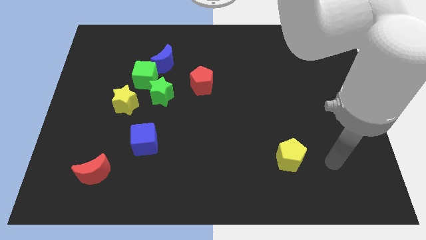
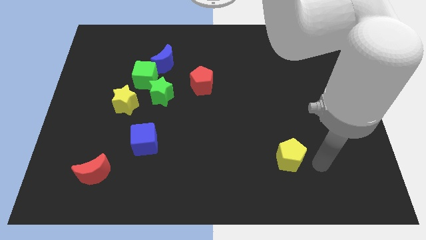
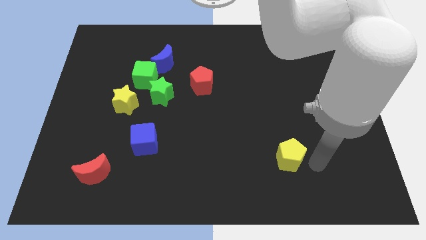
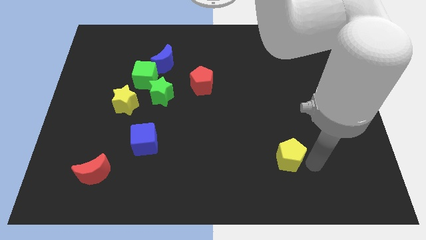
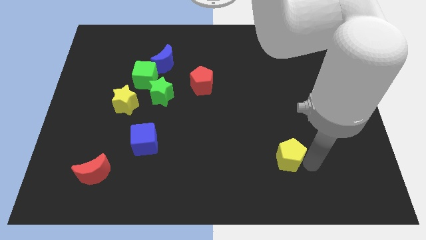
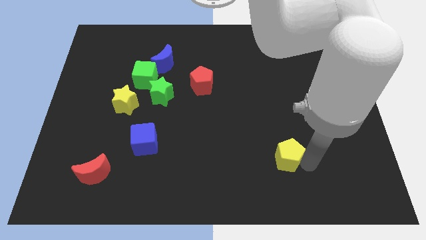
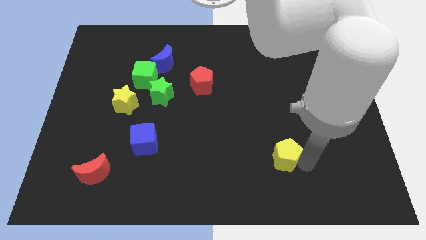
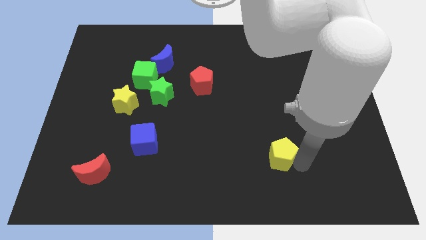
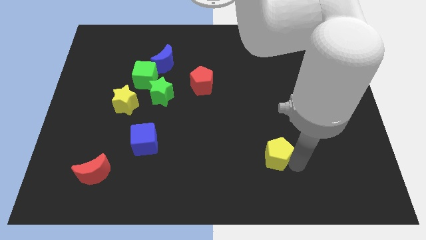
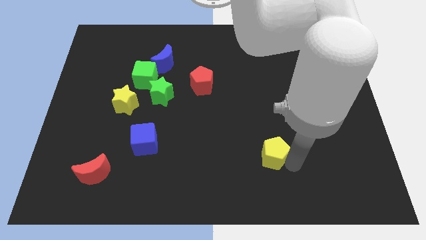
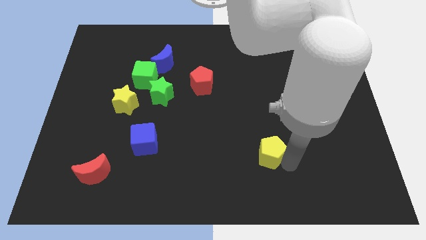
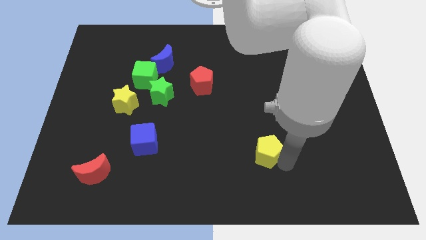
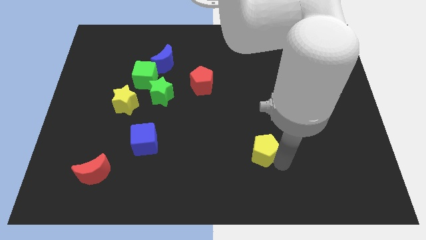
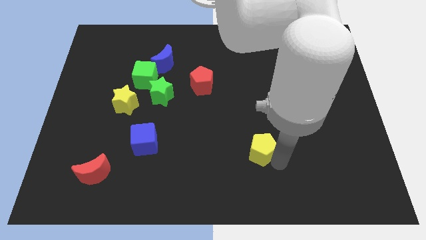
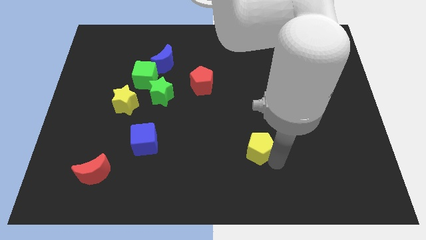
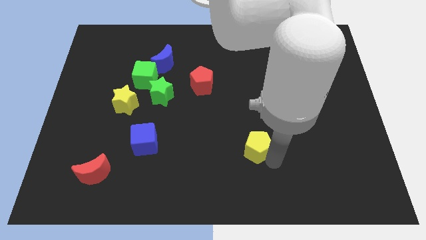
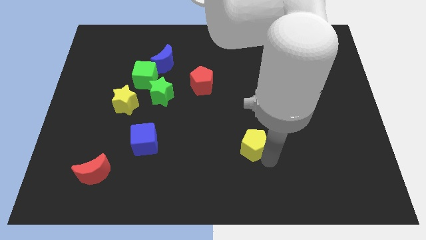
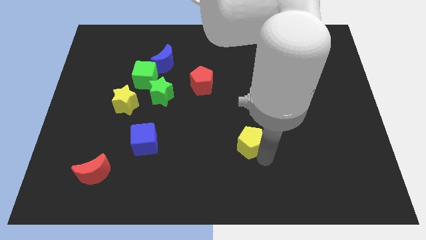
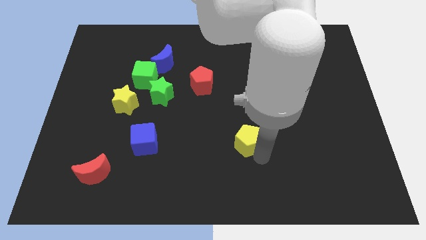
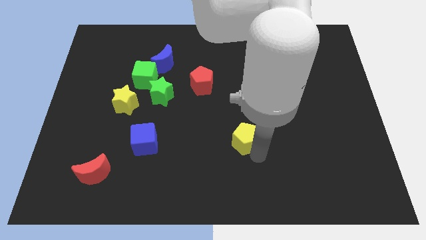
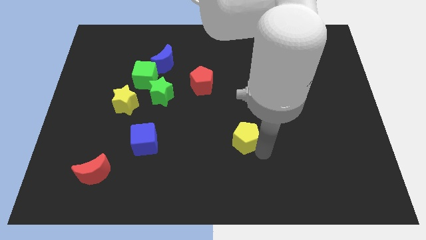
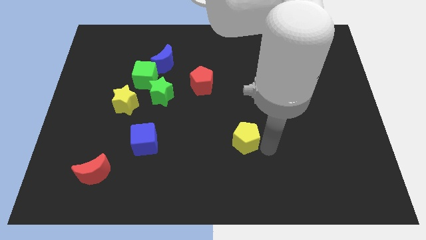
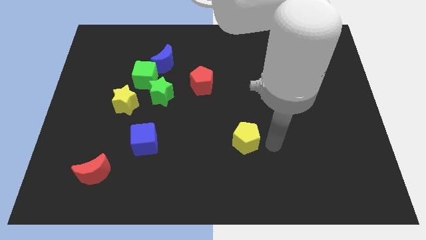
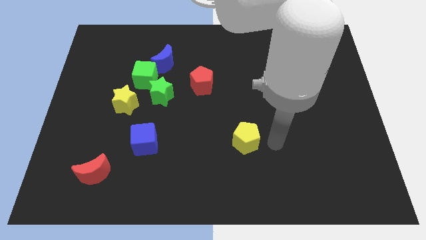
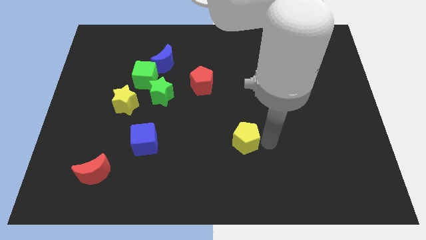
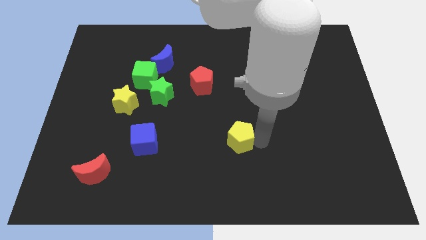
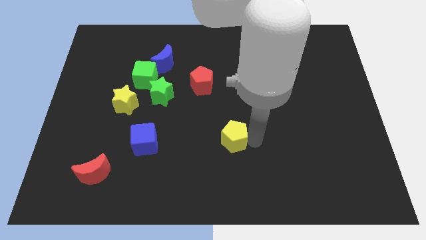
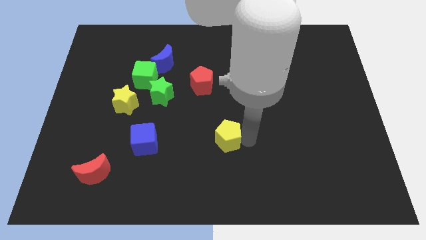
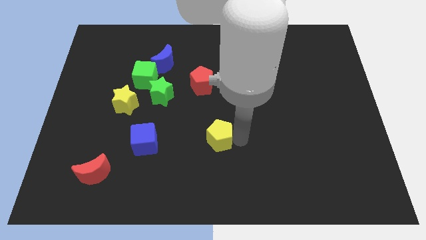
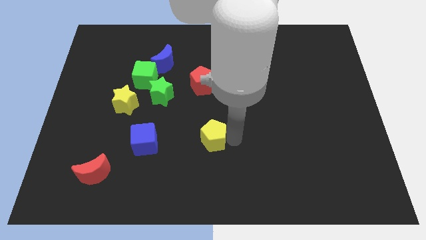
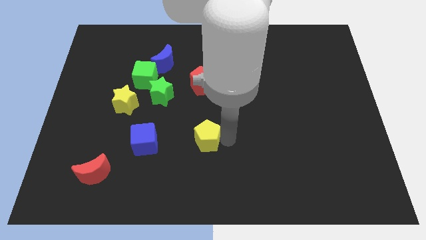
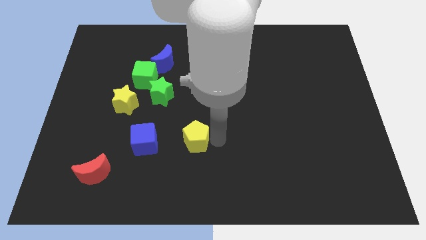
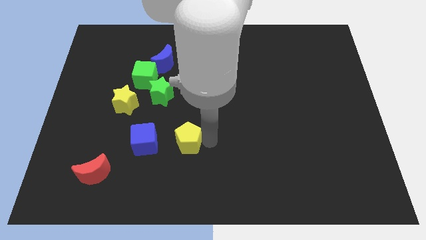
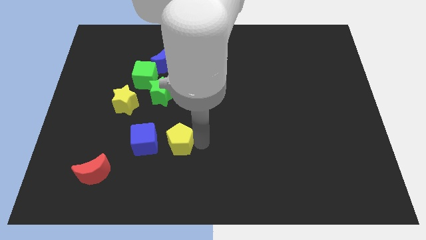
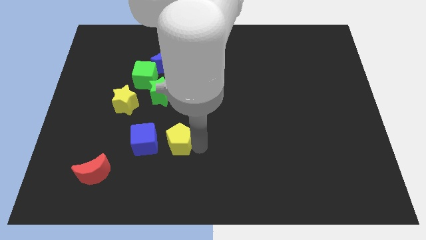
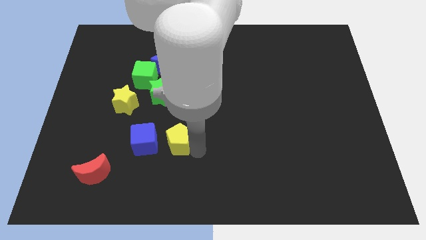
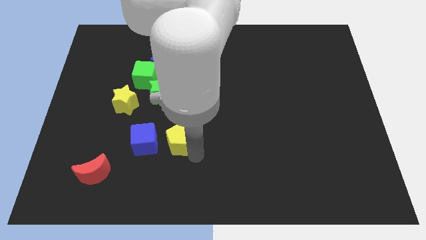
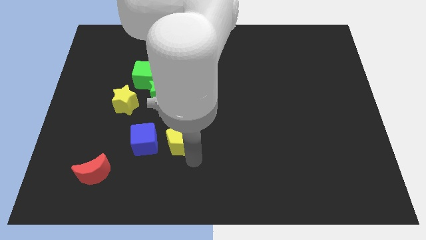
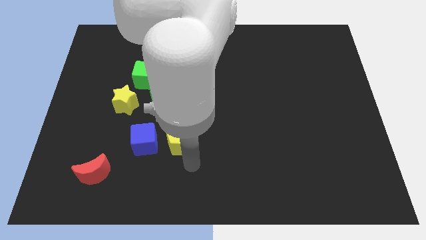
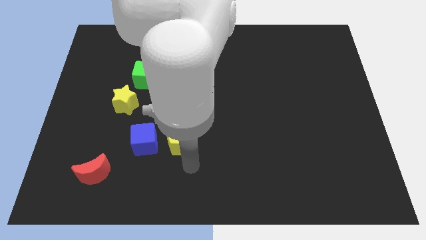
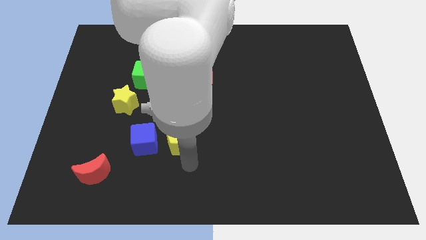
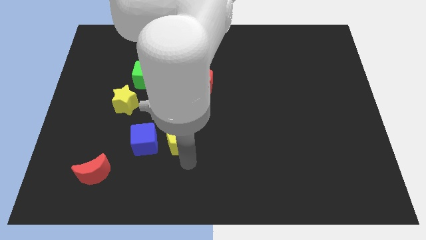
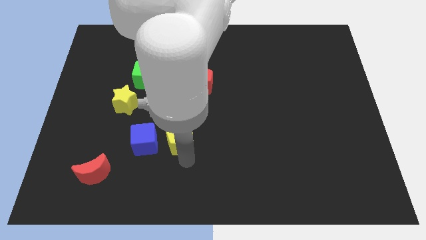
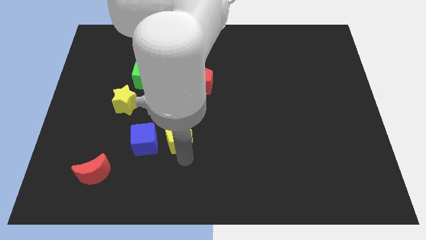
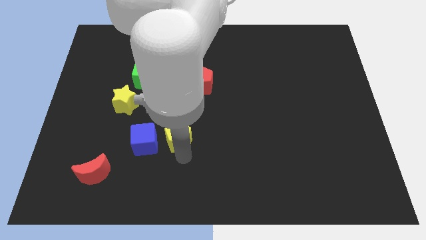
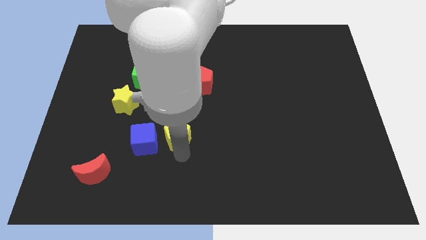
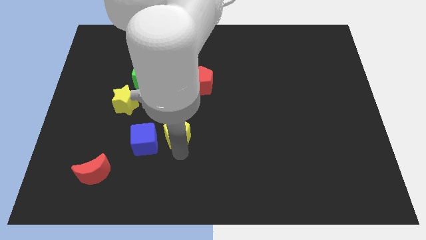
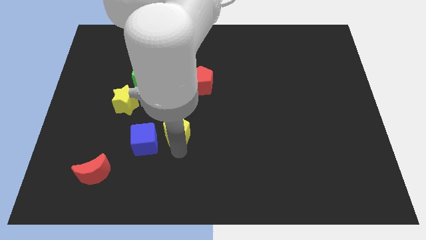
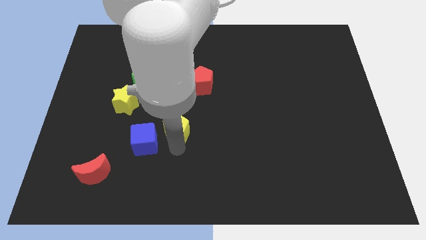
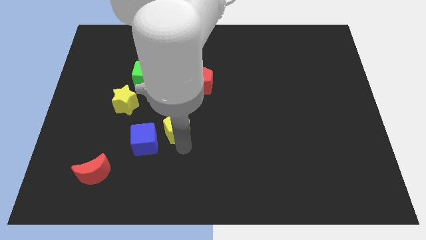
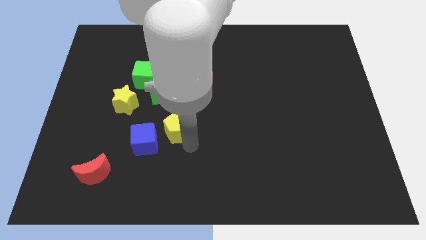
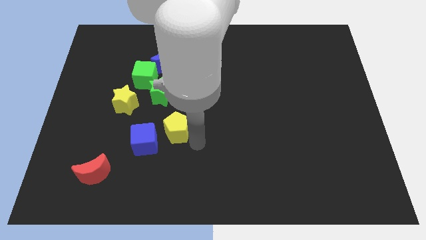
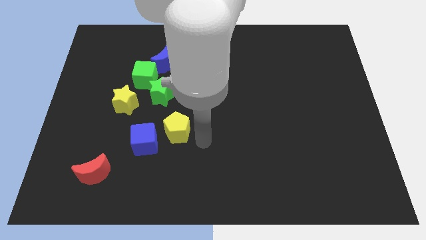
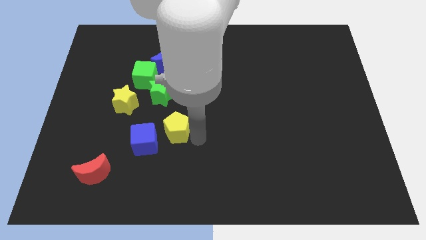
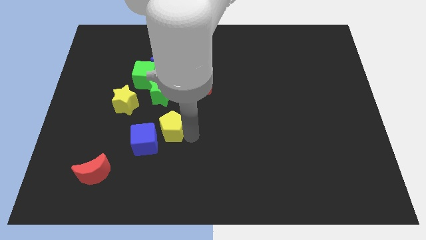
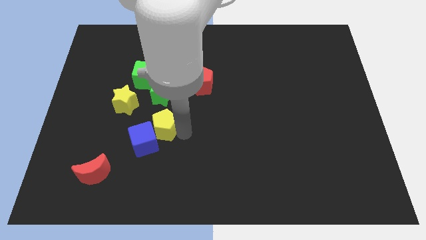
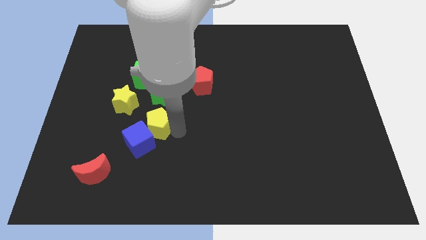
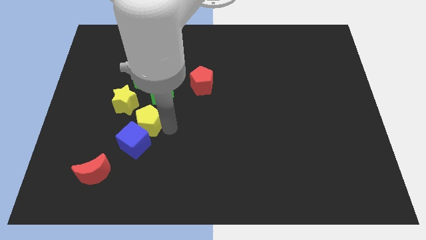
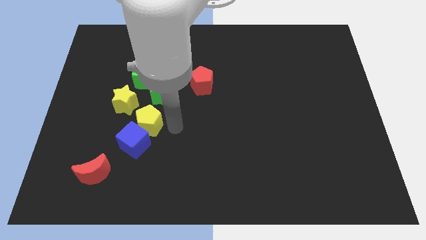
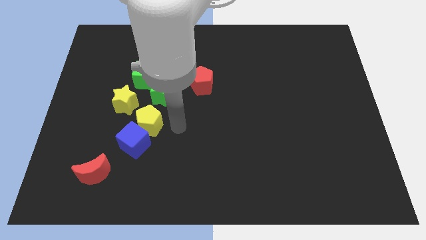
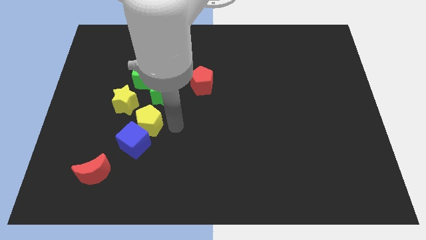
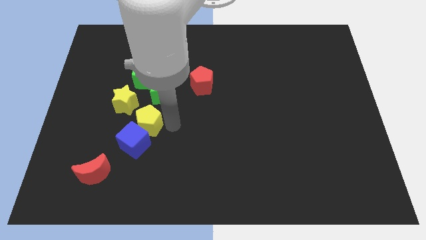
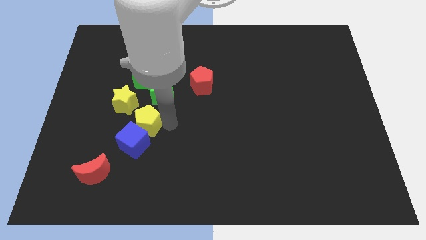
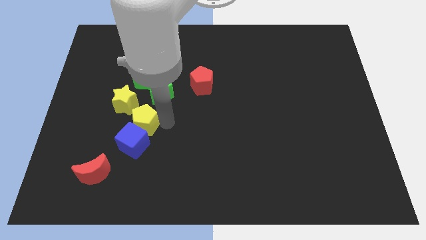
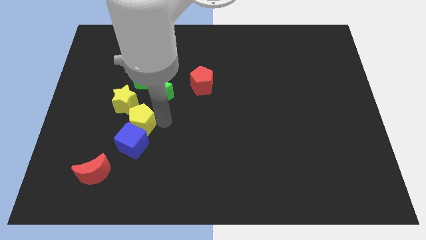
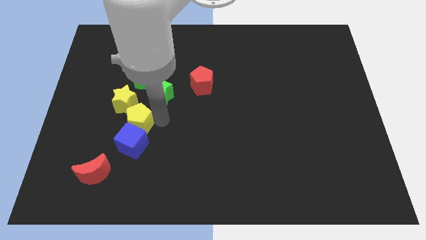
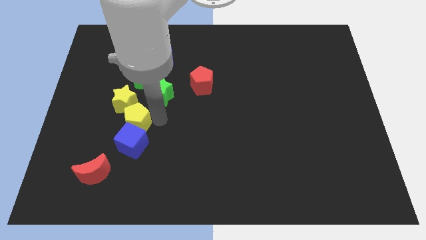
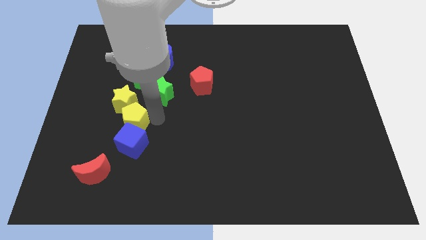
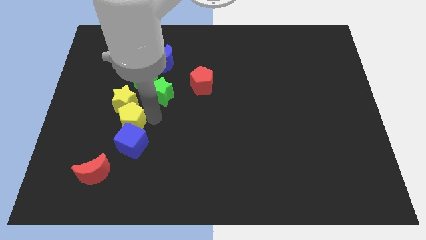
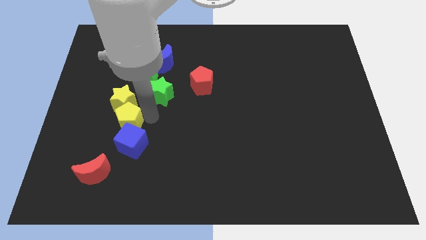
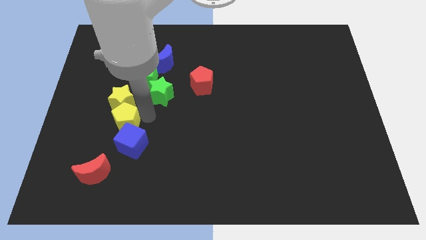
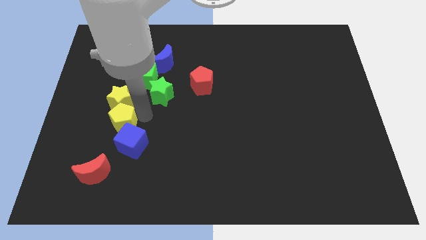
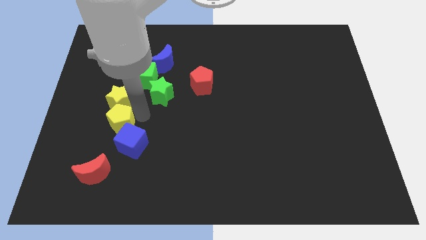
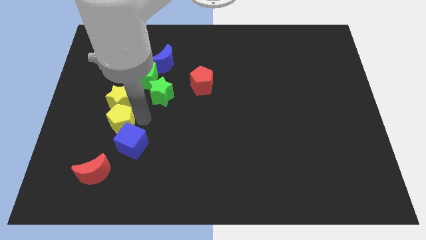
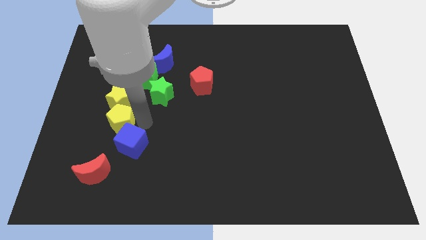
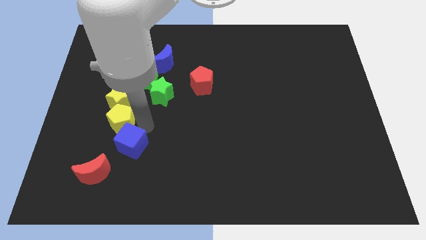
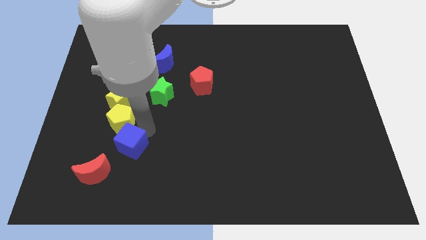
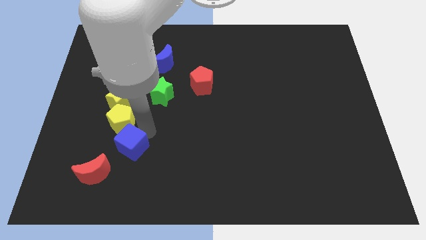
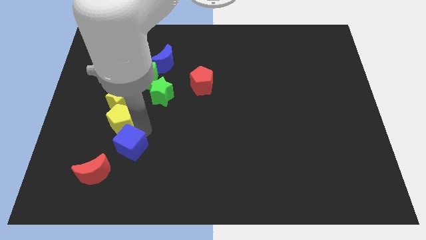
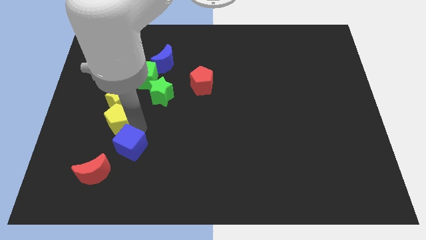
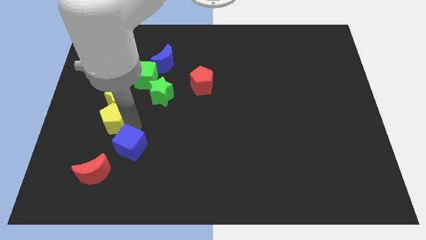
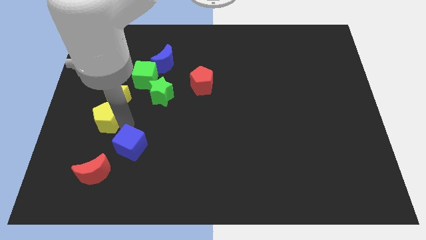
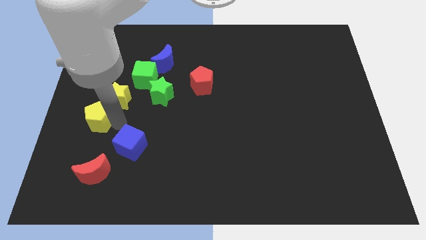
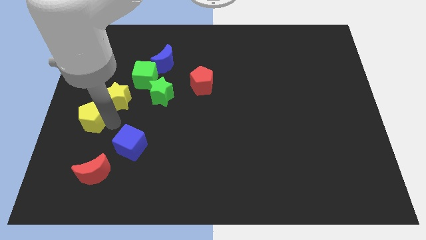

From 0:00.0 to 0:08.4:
push the yellow pentagon to the left side
